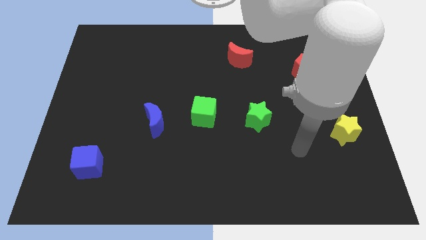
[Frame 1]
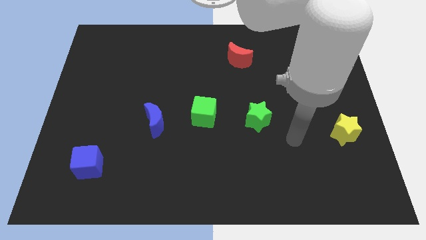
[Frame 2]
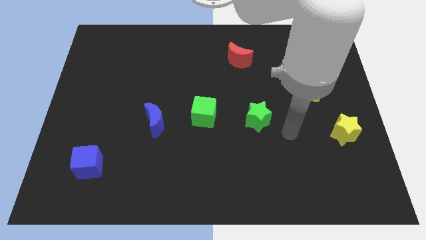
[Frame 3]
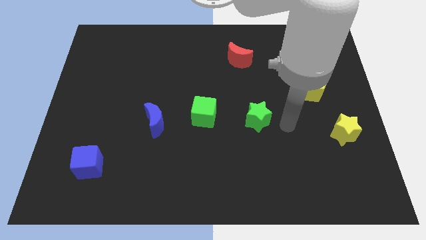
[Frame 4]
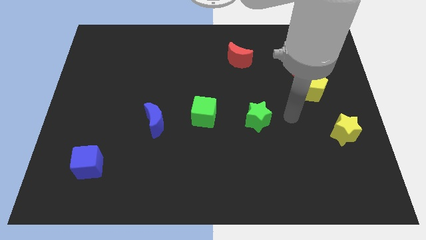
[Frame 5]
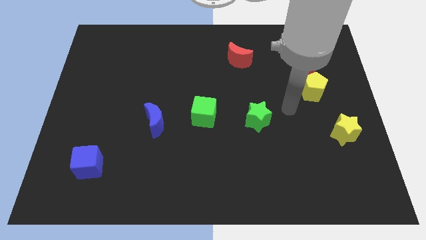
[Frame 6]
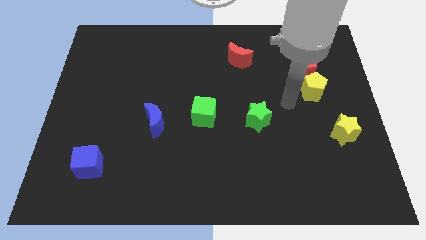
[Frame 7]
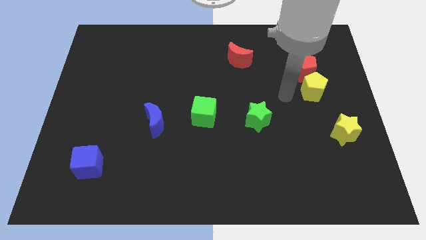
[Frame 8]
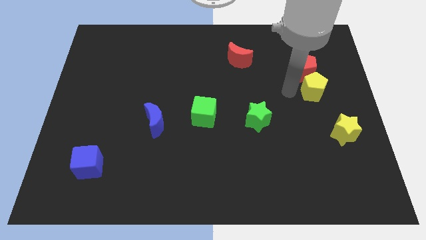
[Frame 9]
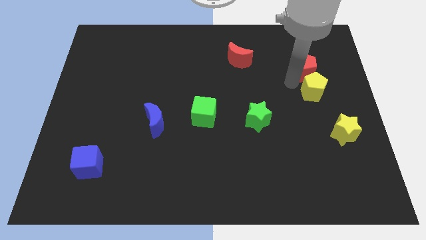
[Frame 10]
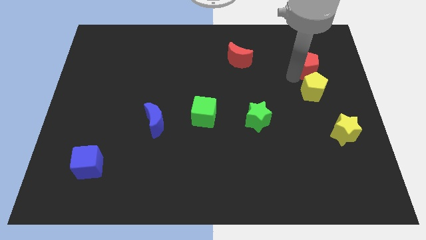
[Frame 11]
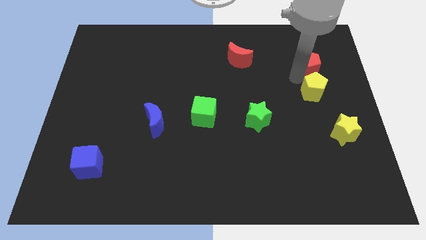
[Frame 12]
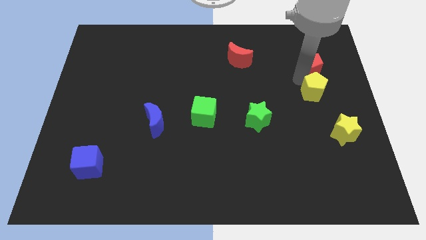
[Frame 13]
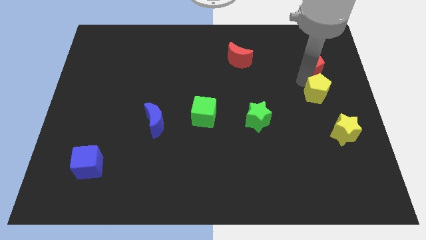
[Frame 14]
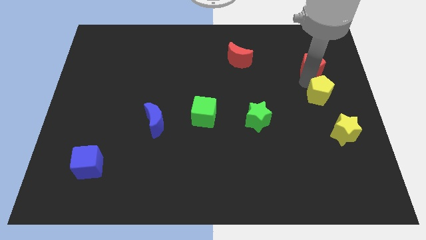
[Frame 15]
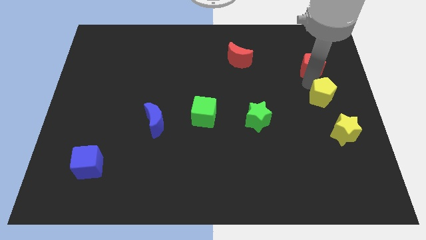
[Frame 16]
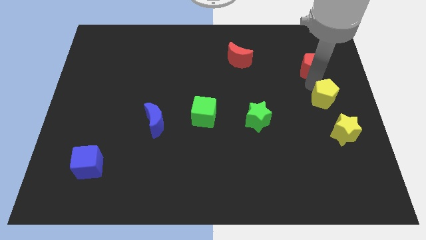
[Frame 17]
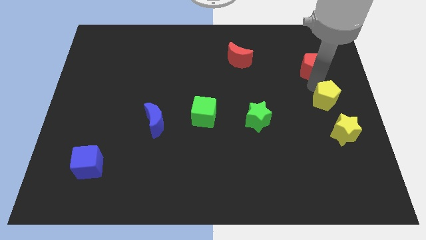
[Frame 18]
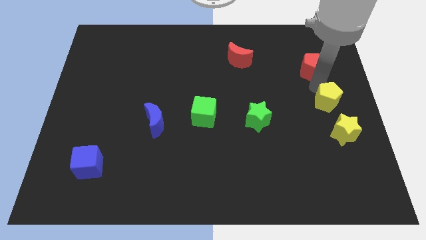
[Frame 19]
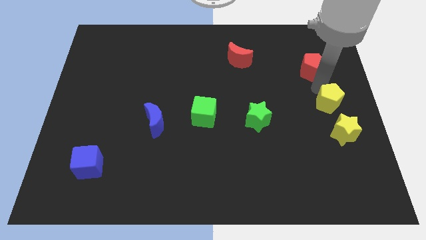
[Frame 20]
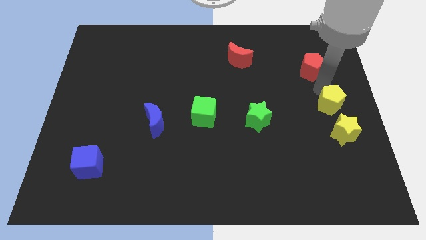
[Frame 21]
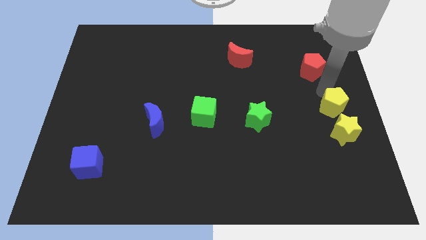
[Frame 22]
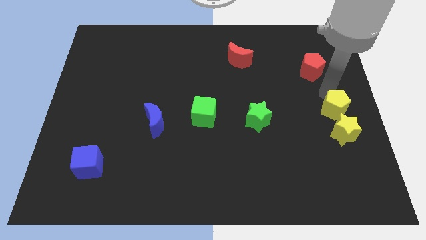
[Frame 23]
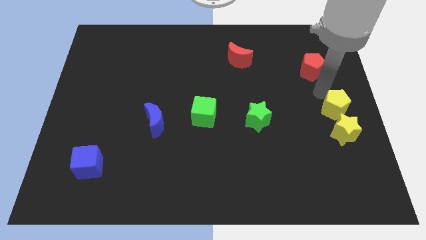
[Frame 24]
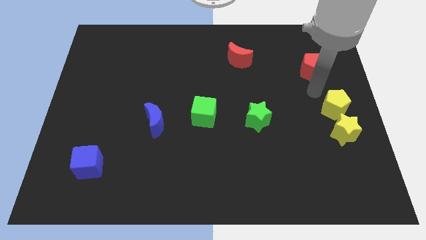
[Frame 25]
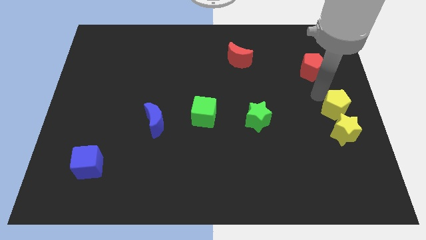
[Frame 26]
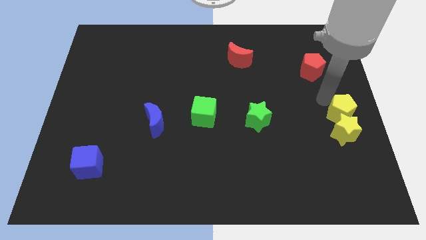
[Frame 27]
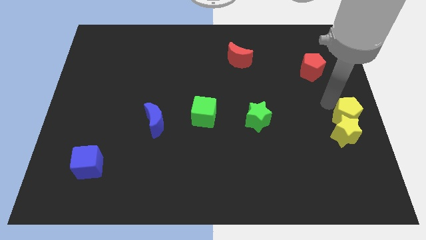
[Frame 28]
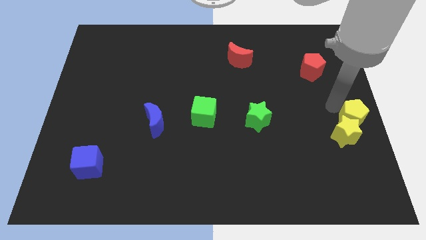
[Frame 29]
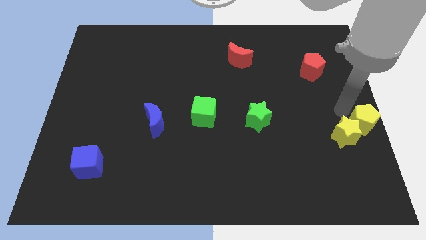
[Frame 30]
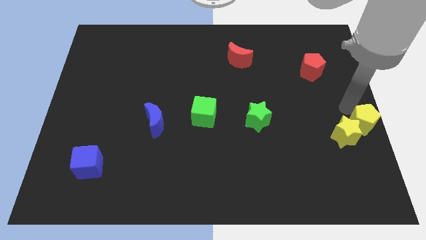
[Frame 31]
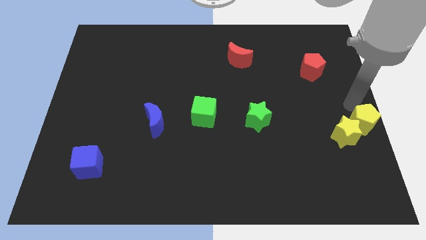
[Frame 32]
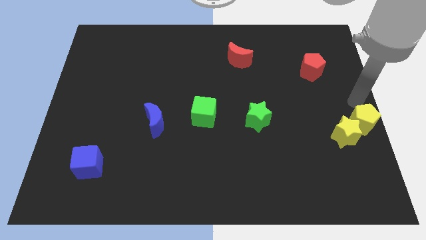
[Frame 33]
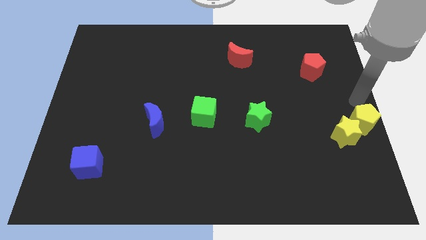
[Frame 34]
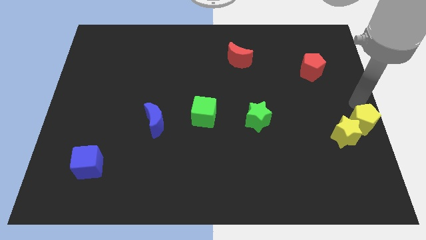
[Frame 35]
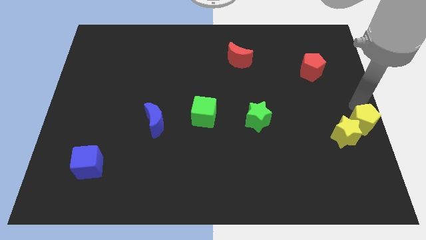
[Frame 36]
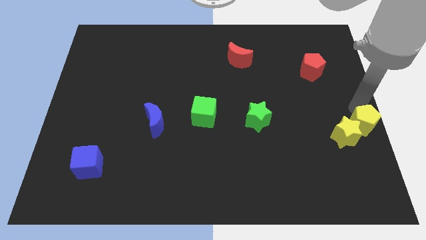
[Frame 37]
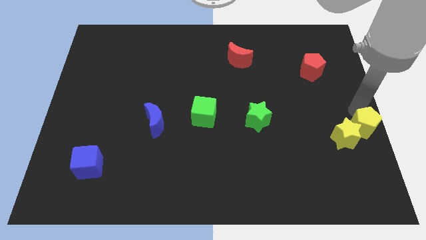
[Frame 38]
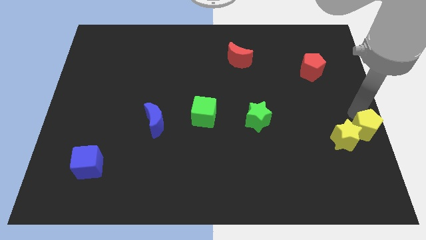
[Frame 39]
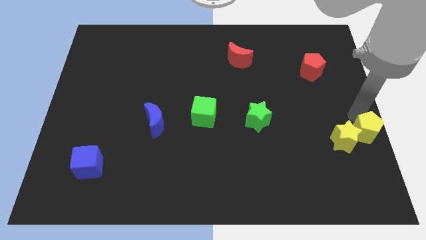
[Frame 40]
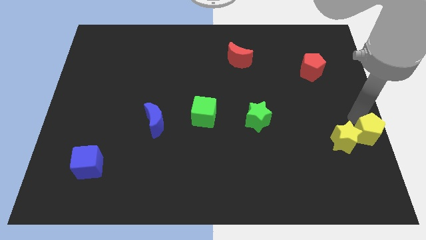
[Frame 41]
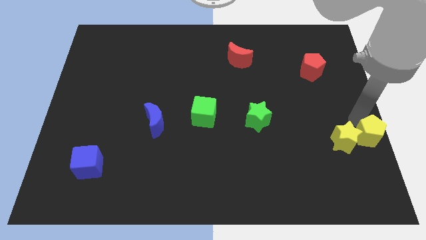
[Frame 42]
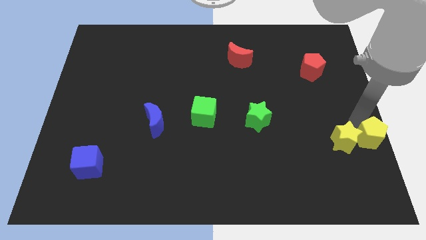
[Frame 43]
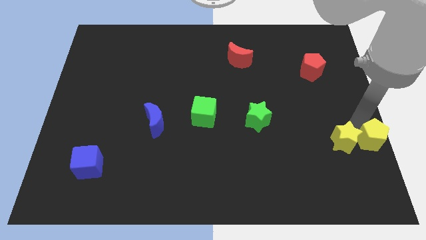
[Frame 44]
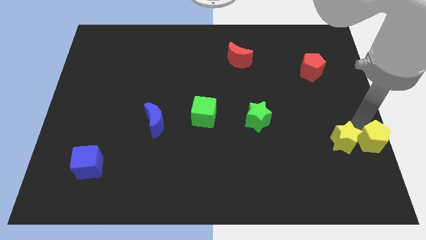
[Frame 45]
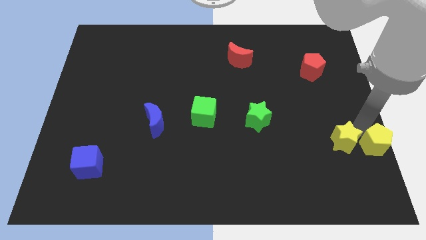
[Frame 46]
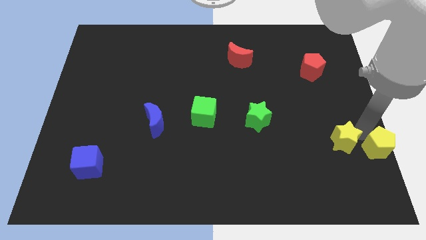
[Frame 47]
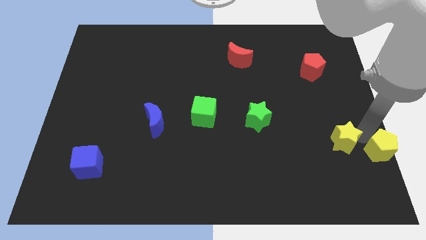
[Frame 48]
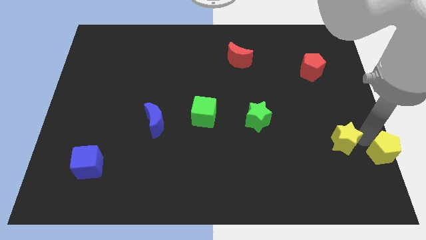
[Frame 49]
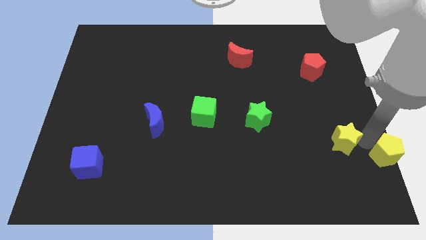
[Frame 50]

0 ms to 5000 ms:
push the yellow pentagon to the bottom right corner

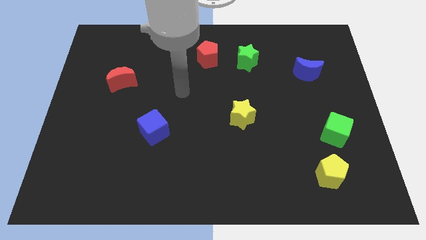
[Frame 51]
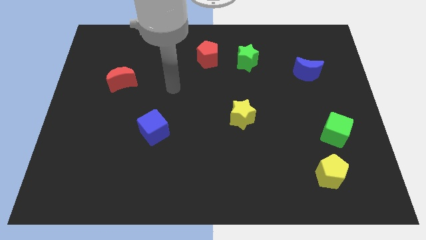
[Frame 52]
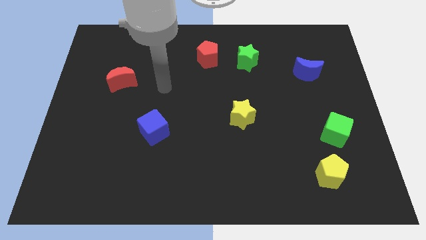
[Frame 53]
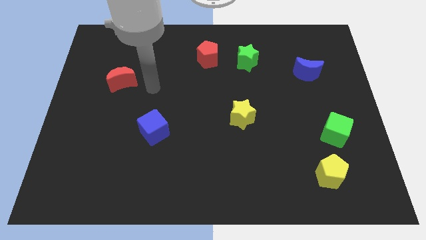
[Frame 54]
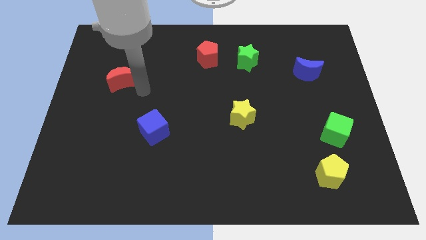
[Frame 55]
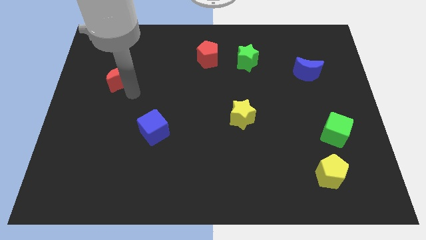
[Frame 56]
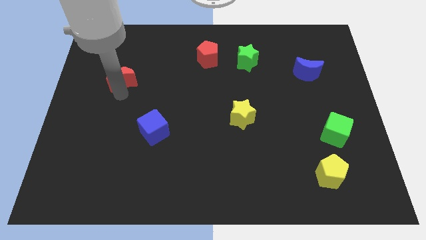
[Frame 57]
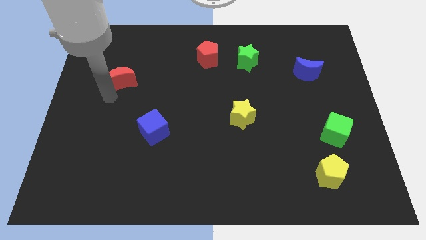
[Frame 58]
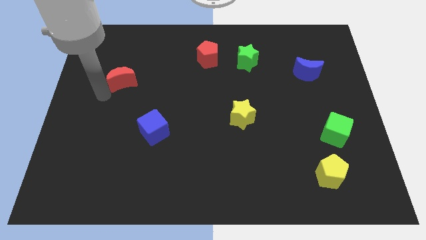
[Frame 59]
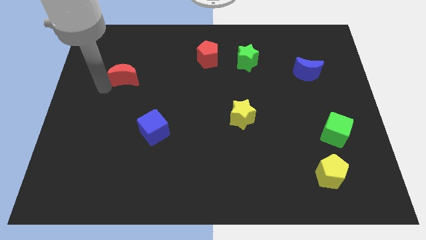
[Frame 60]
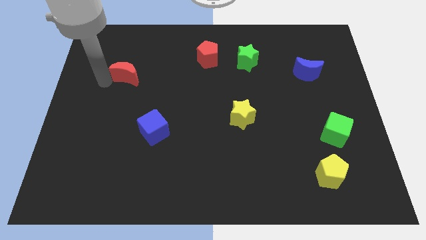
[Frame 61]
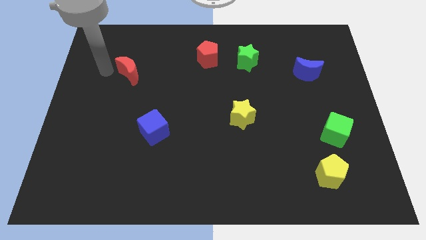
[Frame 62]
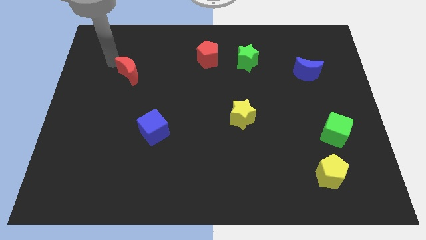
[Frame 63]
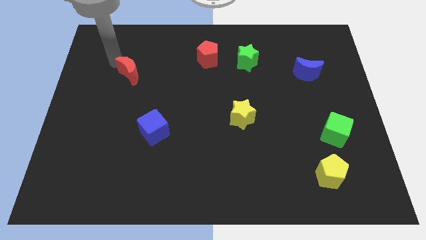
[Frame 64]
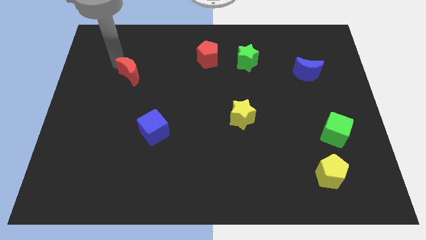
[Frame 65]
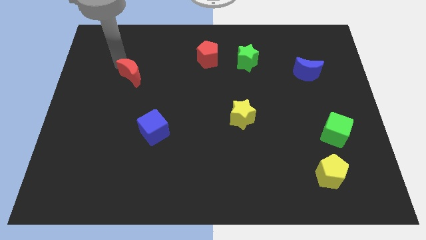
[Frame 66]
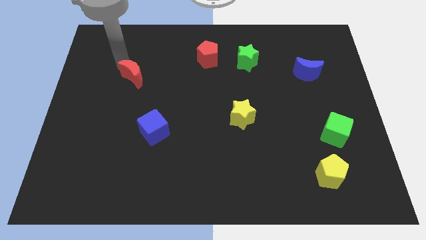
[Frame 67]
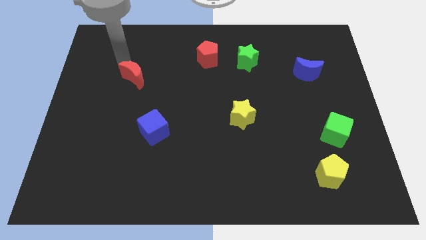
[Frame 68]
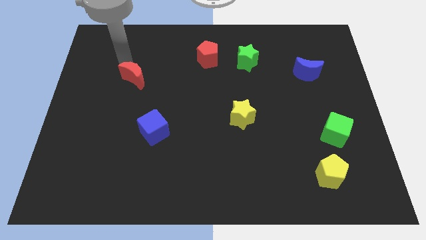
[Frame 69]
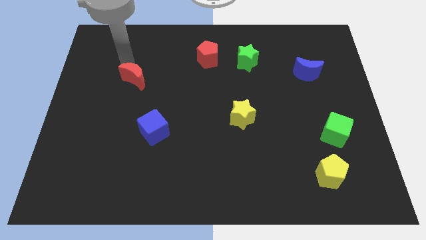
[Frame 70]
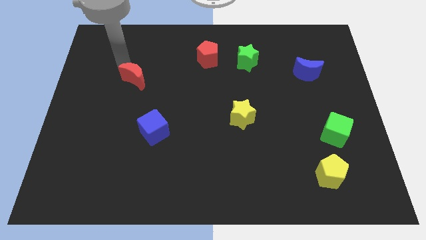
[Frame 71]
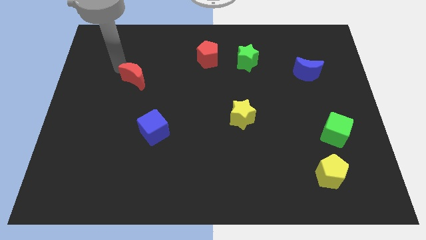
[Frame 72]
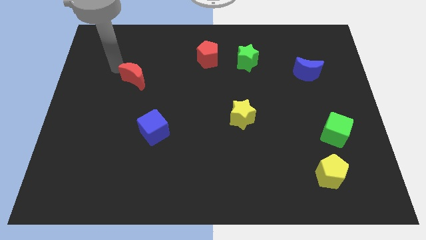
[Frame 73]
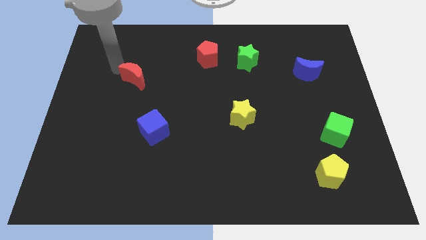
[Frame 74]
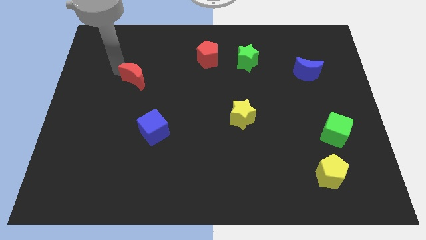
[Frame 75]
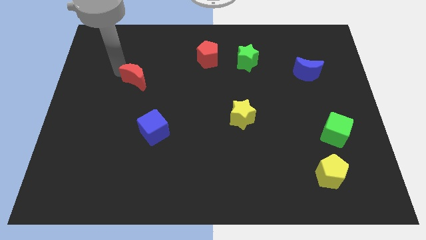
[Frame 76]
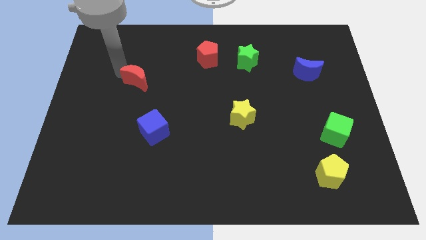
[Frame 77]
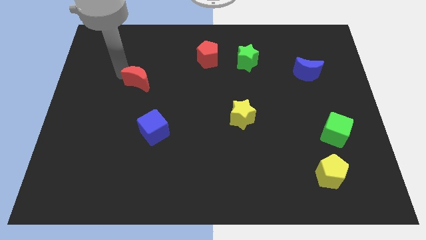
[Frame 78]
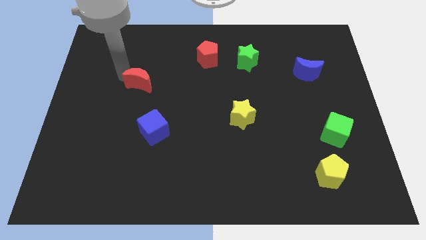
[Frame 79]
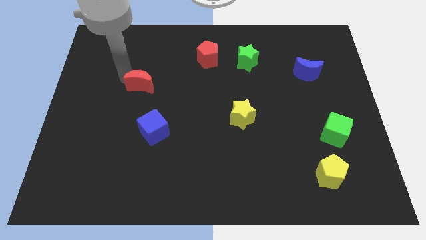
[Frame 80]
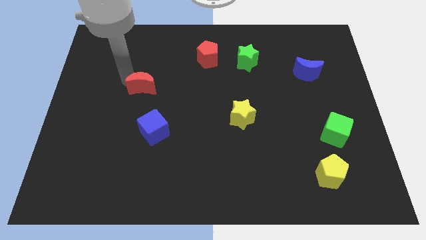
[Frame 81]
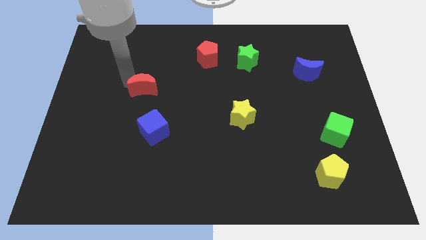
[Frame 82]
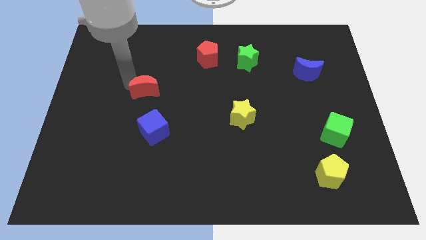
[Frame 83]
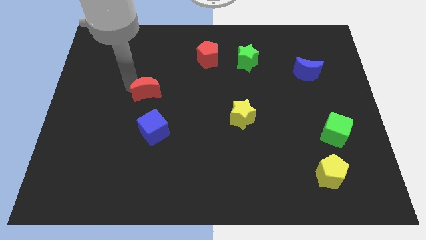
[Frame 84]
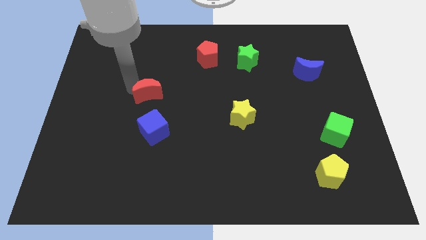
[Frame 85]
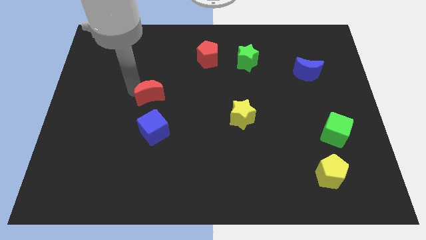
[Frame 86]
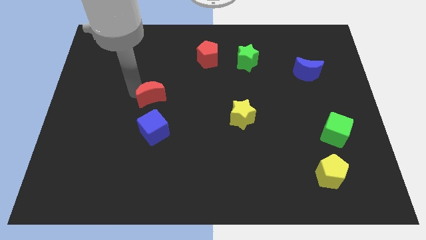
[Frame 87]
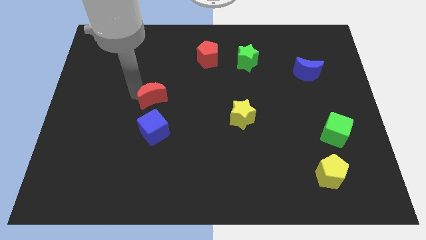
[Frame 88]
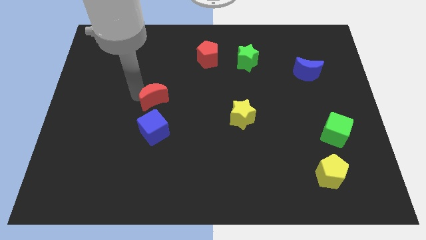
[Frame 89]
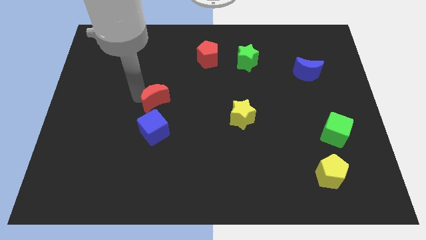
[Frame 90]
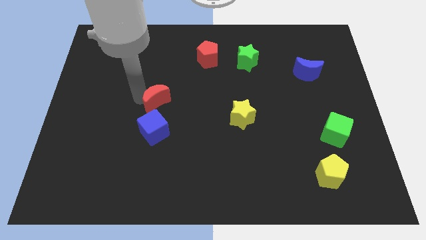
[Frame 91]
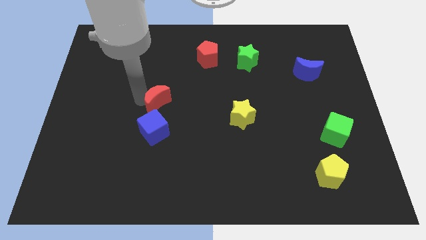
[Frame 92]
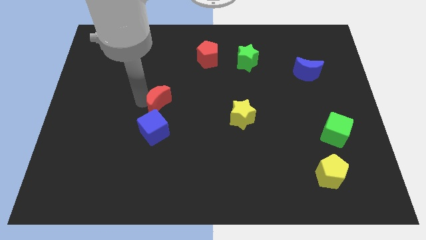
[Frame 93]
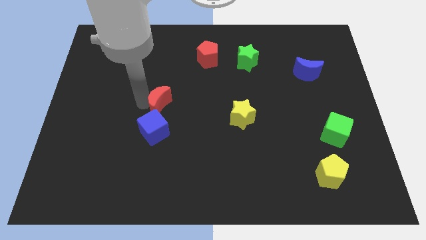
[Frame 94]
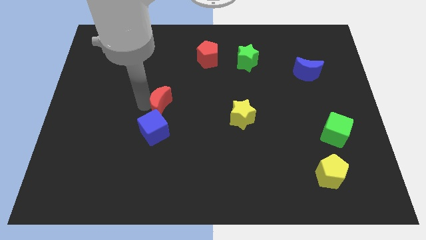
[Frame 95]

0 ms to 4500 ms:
push the red moon to the center of the board
